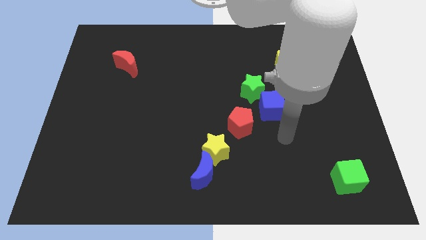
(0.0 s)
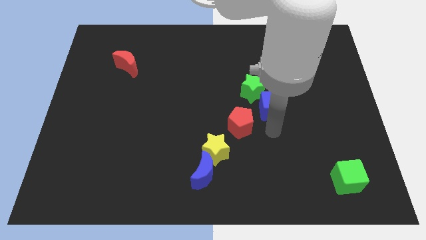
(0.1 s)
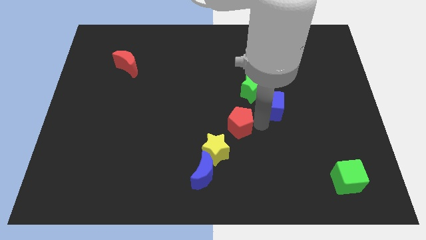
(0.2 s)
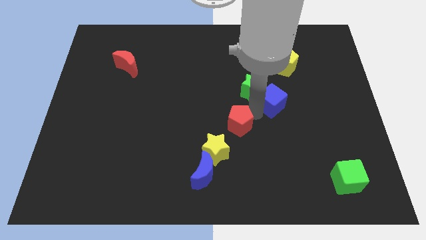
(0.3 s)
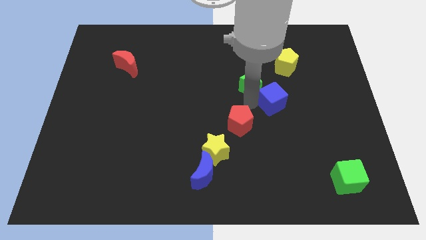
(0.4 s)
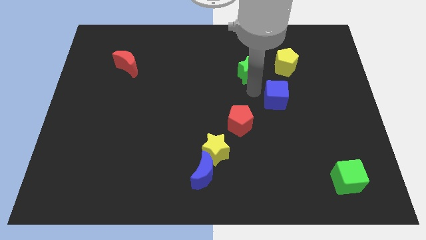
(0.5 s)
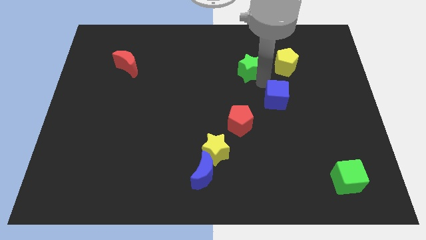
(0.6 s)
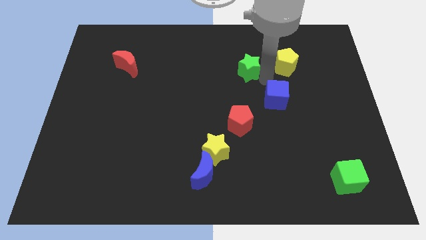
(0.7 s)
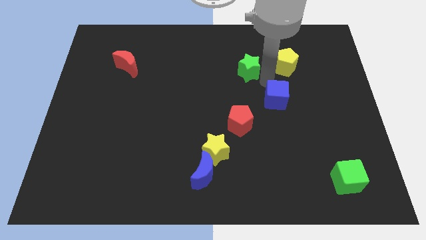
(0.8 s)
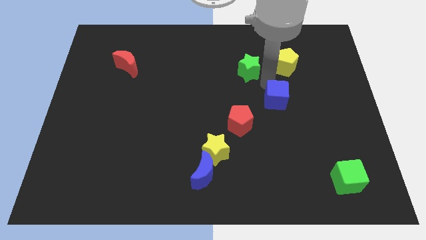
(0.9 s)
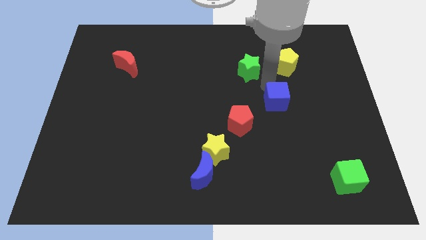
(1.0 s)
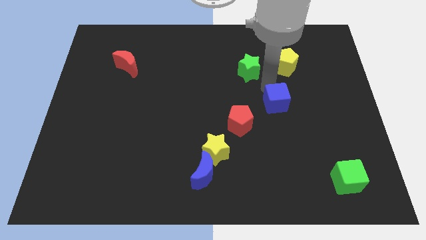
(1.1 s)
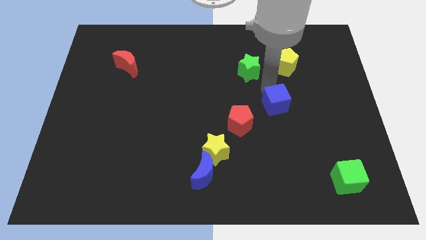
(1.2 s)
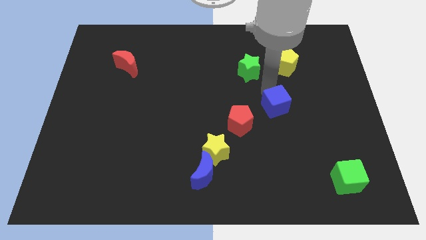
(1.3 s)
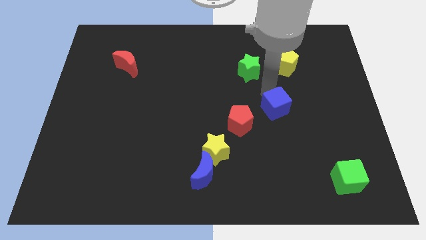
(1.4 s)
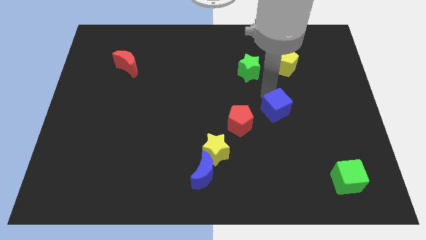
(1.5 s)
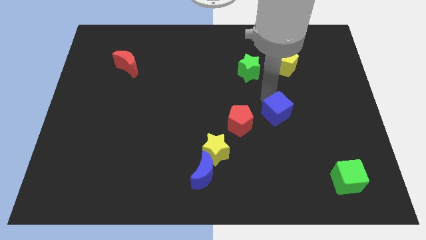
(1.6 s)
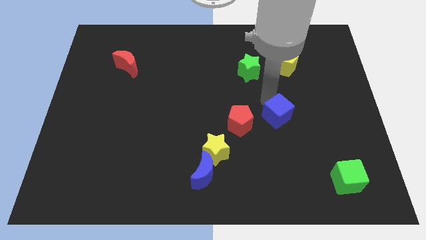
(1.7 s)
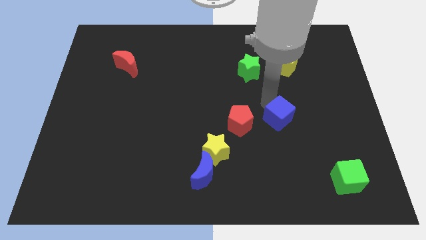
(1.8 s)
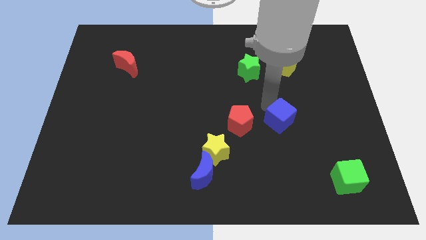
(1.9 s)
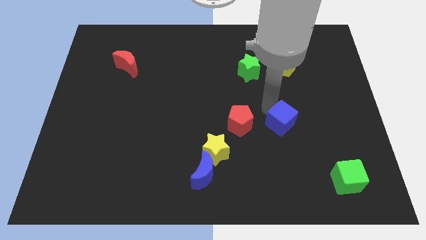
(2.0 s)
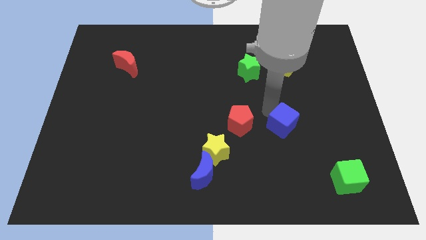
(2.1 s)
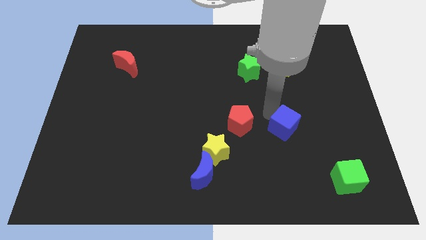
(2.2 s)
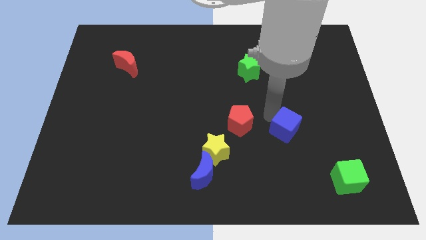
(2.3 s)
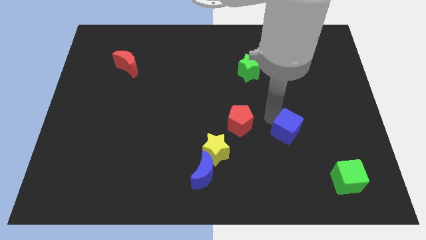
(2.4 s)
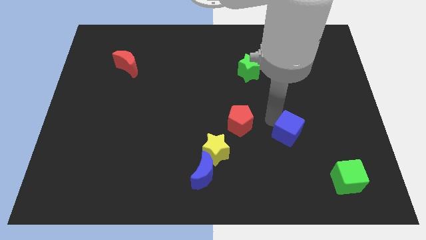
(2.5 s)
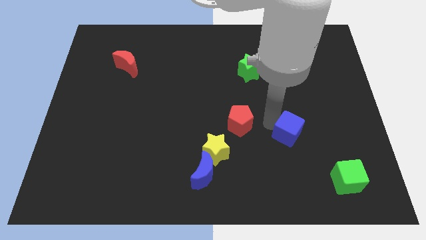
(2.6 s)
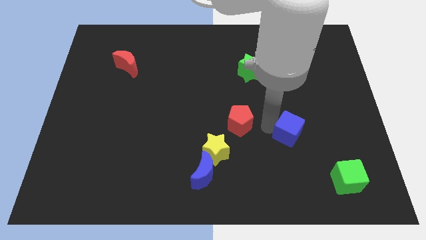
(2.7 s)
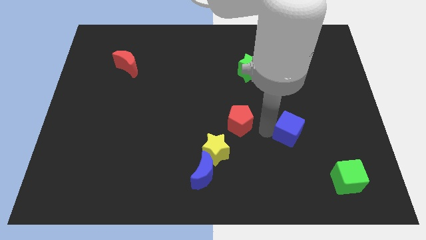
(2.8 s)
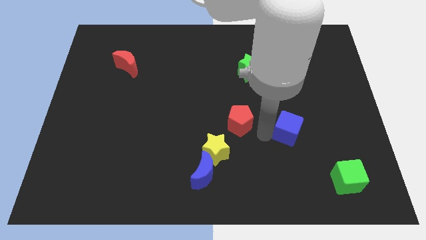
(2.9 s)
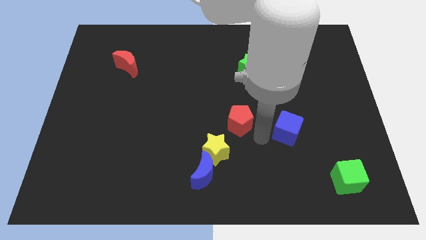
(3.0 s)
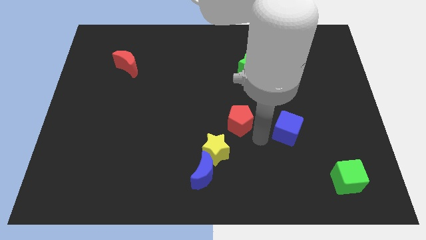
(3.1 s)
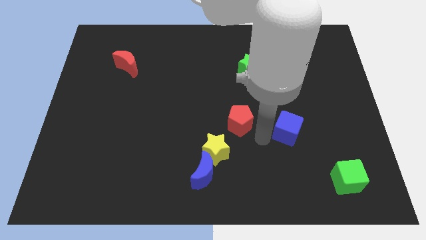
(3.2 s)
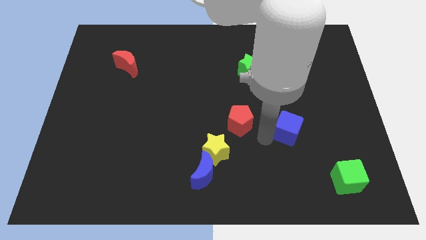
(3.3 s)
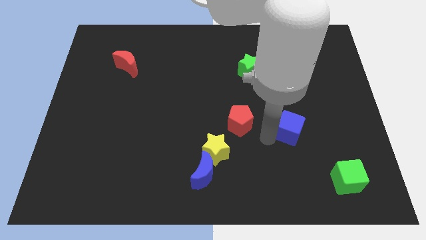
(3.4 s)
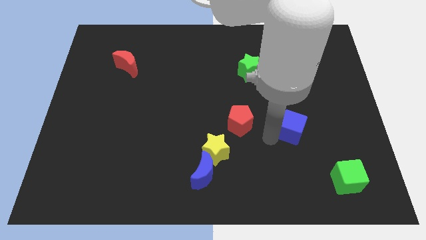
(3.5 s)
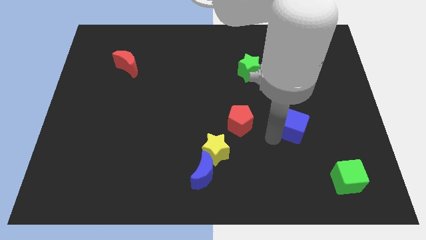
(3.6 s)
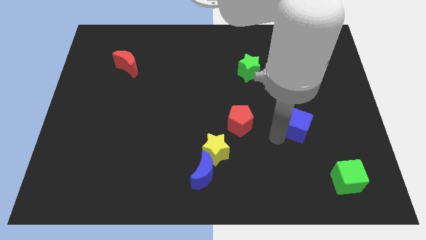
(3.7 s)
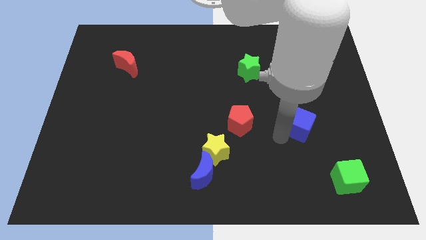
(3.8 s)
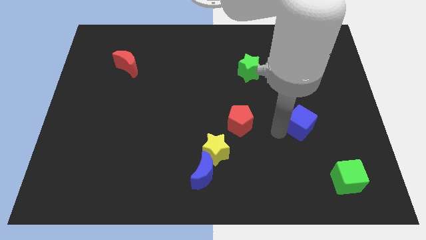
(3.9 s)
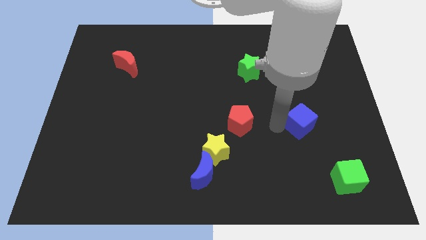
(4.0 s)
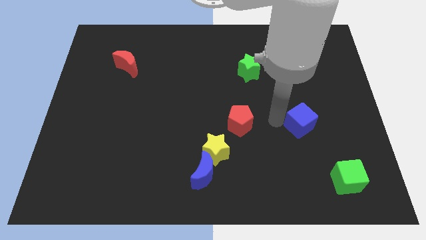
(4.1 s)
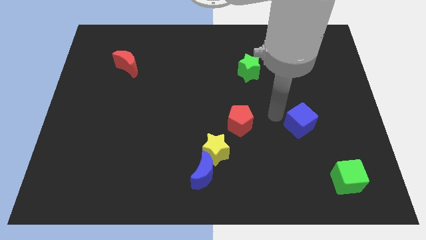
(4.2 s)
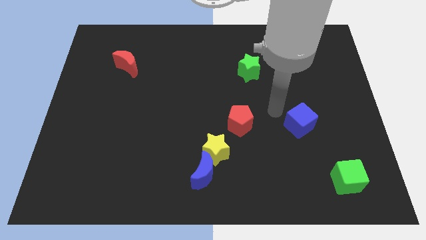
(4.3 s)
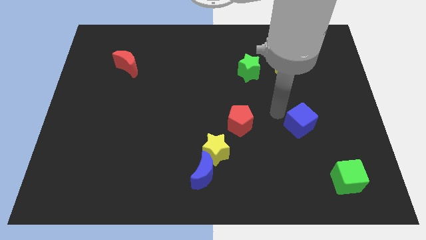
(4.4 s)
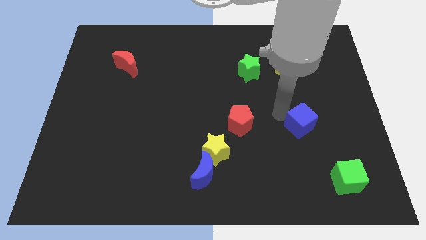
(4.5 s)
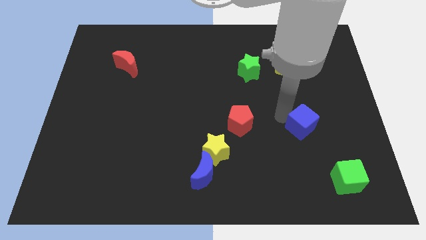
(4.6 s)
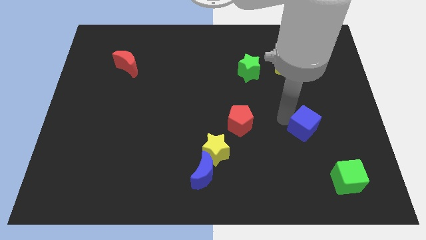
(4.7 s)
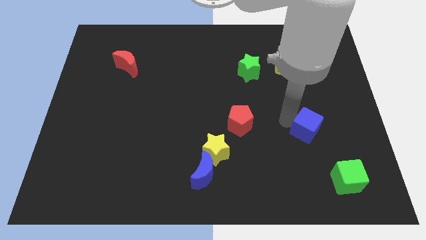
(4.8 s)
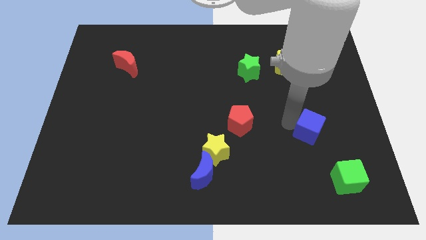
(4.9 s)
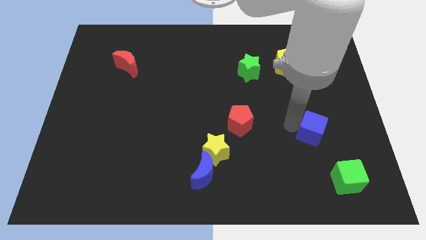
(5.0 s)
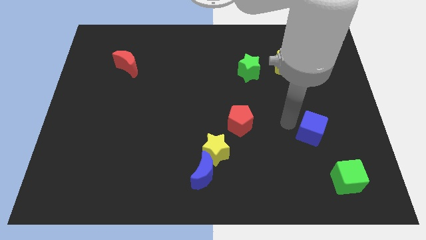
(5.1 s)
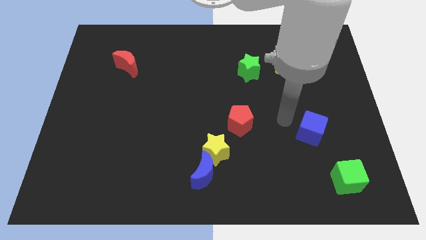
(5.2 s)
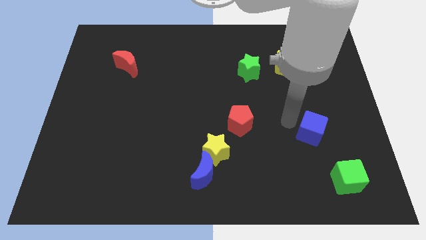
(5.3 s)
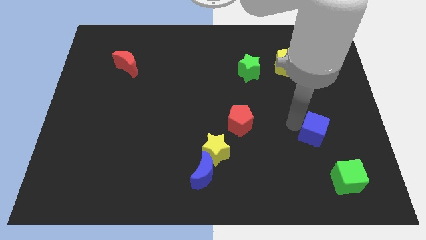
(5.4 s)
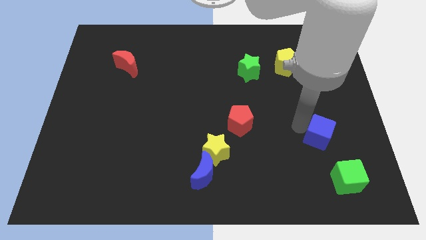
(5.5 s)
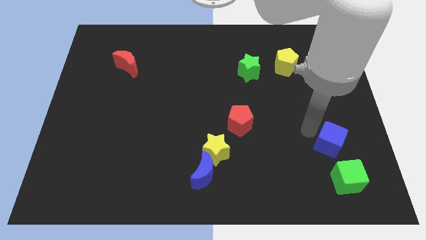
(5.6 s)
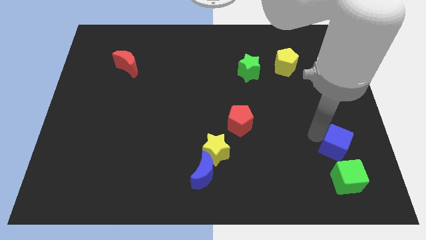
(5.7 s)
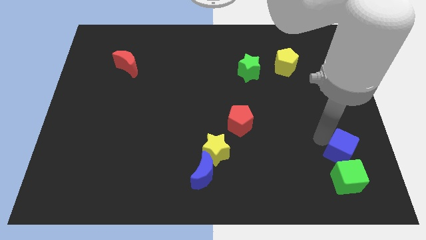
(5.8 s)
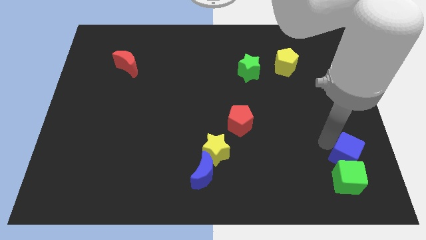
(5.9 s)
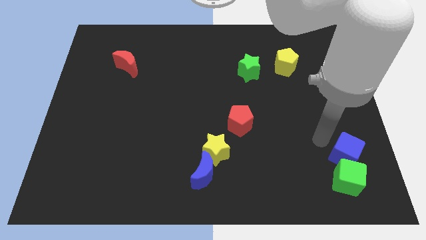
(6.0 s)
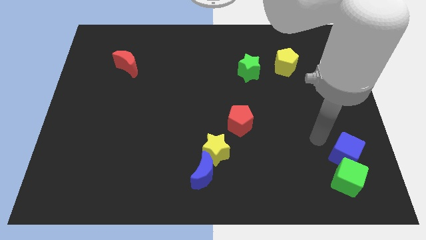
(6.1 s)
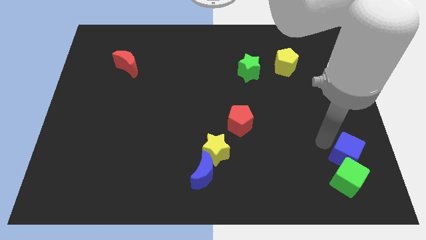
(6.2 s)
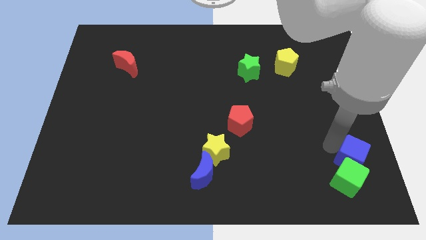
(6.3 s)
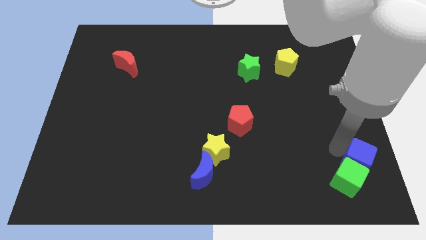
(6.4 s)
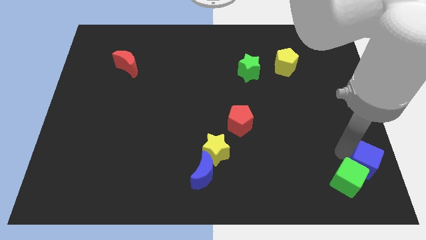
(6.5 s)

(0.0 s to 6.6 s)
put the blue cube to the bottom right corner
